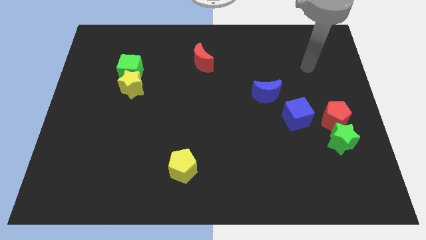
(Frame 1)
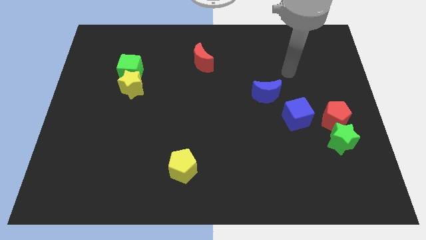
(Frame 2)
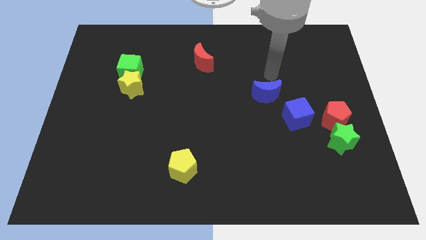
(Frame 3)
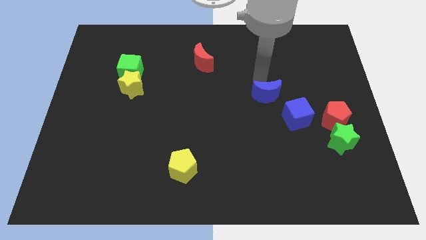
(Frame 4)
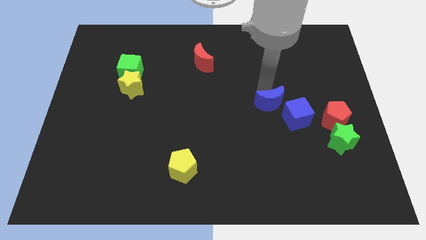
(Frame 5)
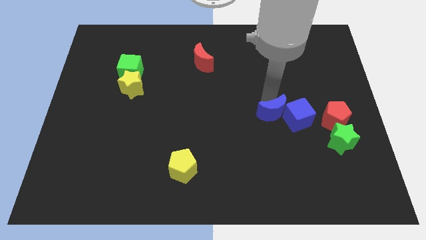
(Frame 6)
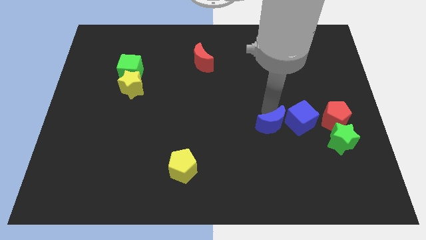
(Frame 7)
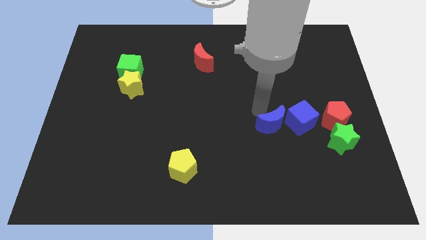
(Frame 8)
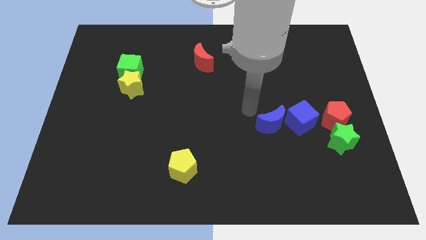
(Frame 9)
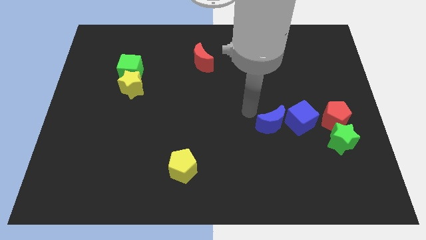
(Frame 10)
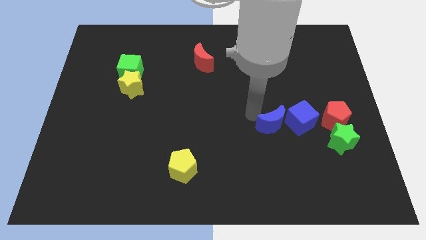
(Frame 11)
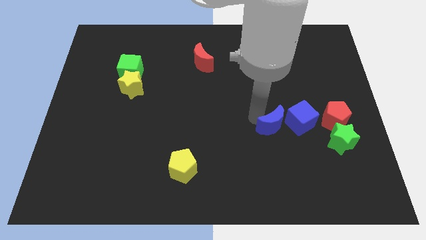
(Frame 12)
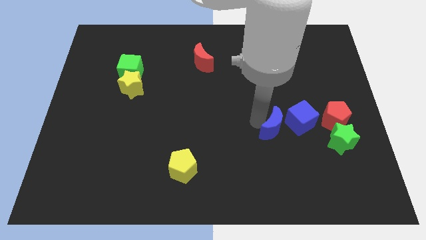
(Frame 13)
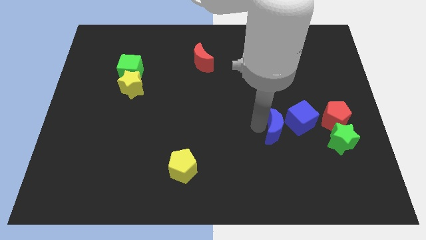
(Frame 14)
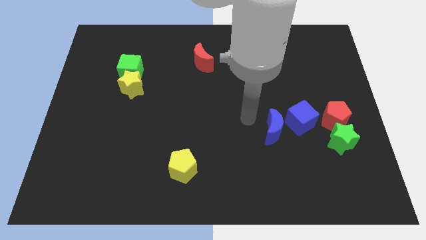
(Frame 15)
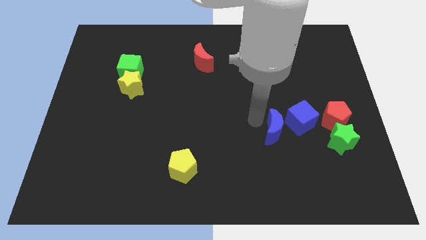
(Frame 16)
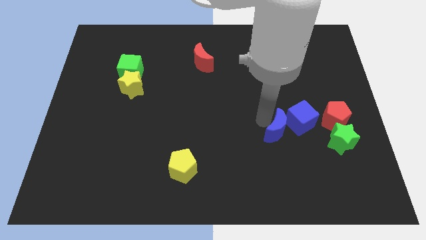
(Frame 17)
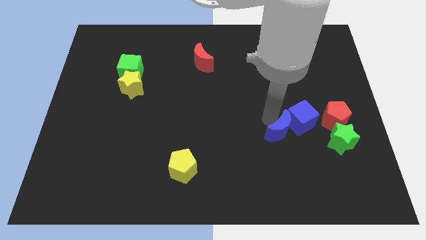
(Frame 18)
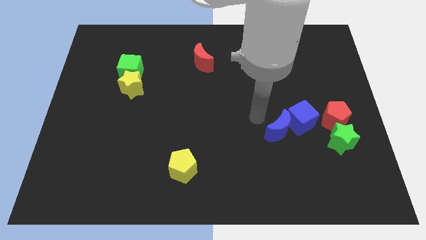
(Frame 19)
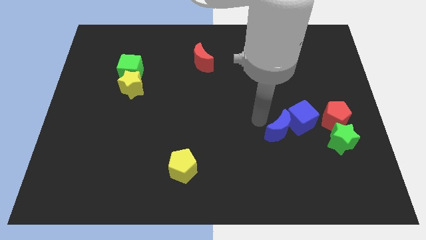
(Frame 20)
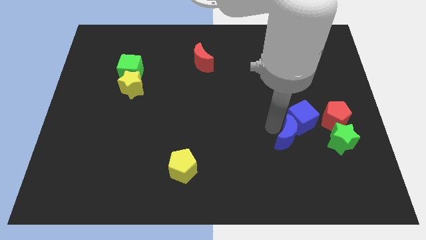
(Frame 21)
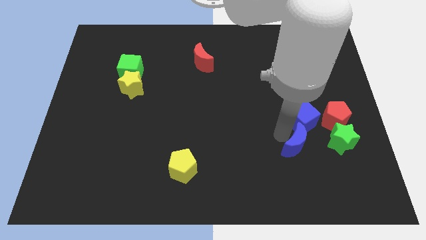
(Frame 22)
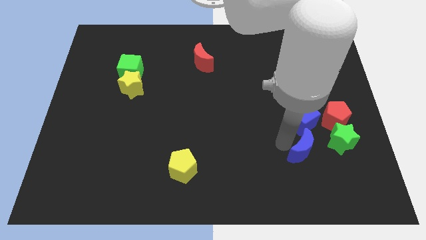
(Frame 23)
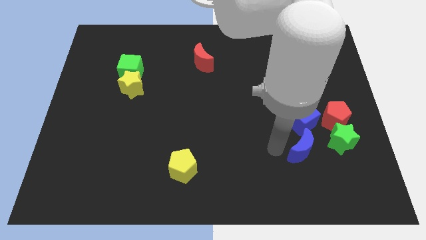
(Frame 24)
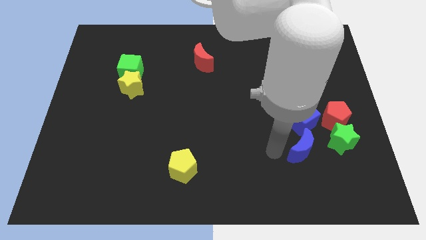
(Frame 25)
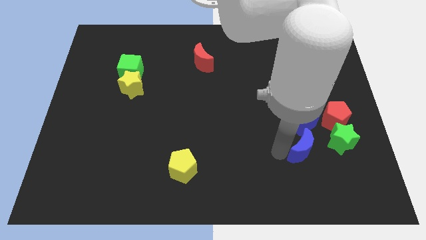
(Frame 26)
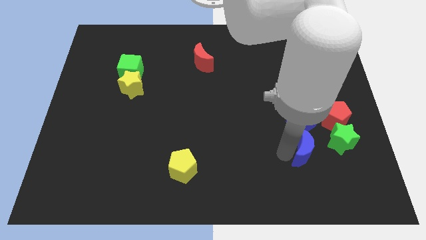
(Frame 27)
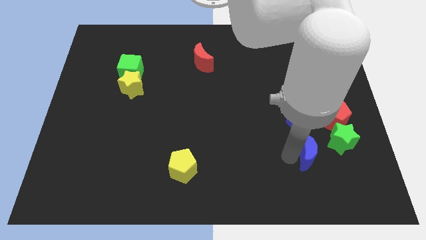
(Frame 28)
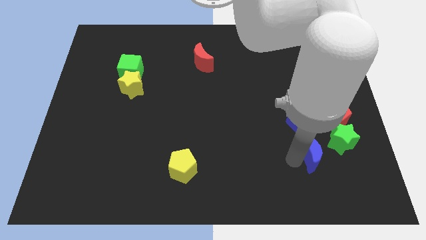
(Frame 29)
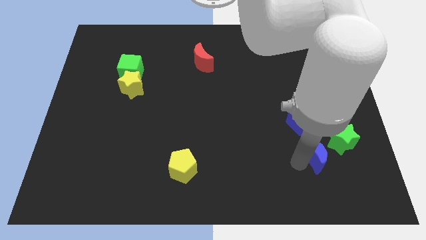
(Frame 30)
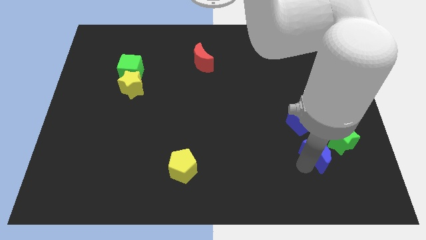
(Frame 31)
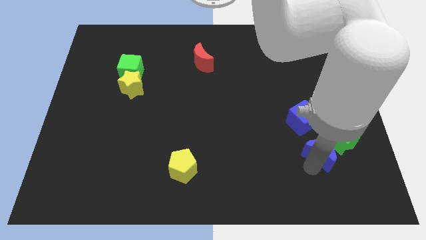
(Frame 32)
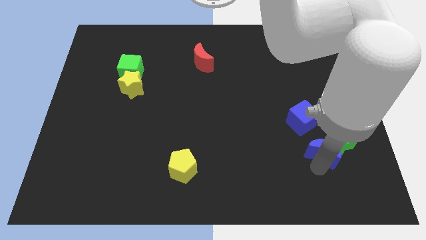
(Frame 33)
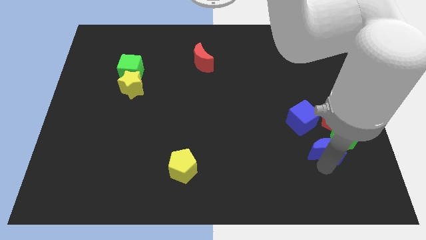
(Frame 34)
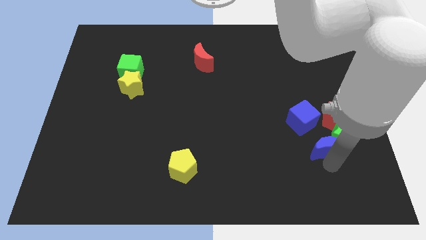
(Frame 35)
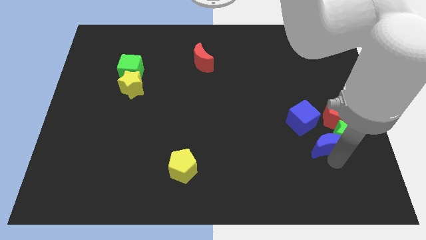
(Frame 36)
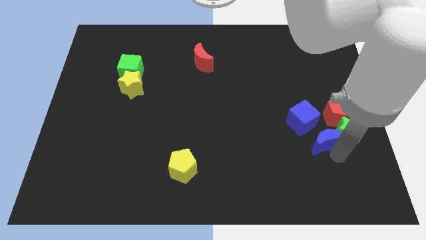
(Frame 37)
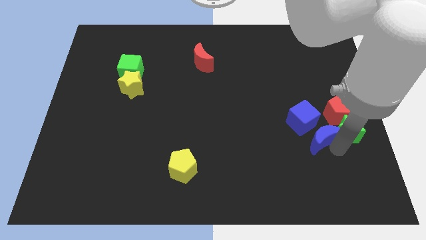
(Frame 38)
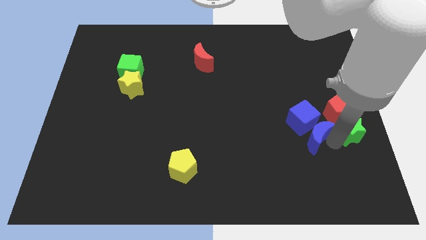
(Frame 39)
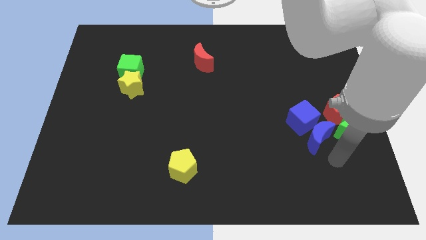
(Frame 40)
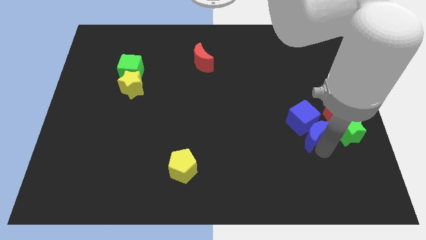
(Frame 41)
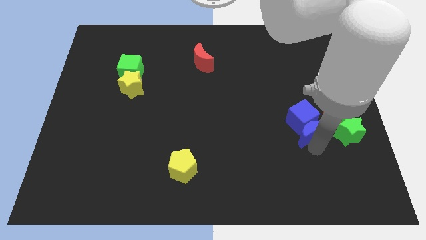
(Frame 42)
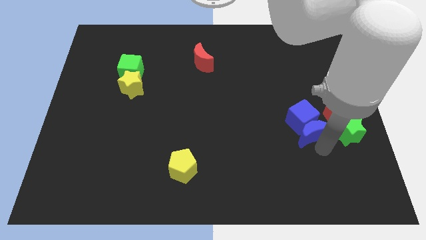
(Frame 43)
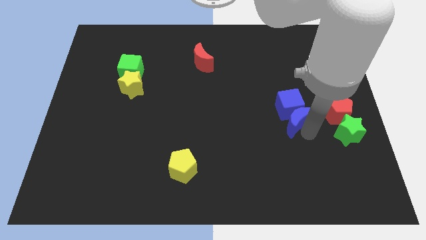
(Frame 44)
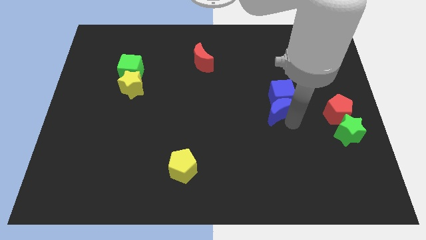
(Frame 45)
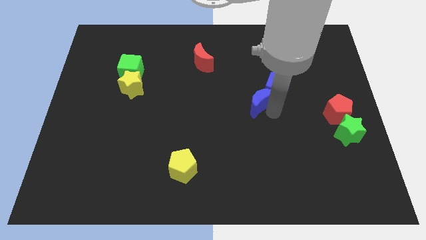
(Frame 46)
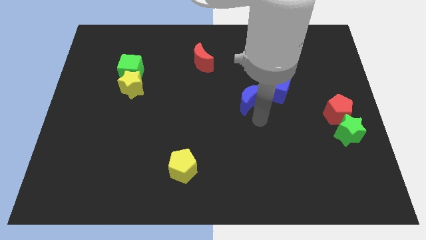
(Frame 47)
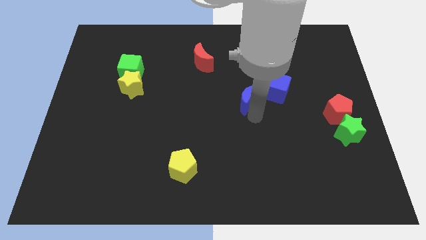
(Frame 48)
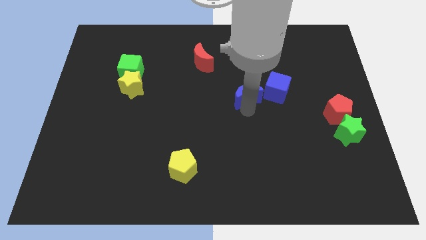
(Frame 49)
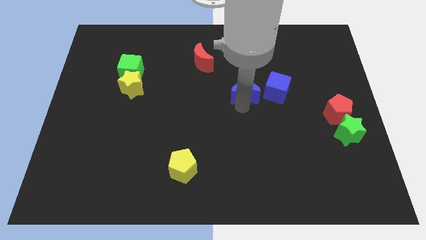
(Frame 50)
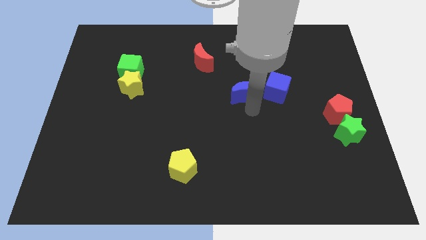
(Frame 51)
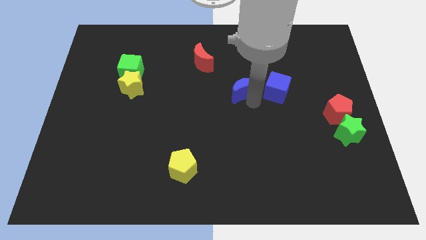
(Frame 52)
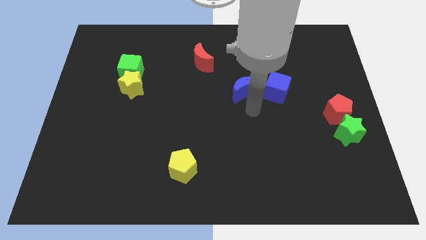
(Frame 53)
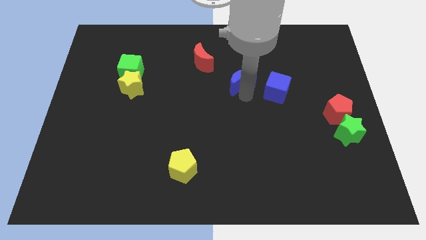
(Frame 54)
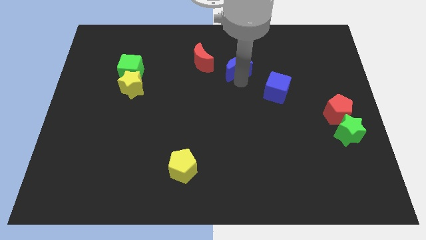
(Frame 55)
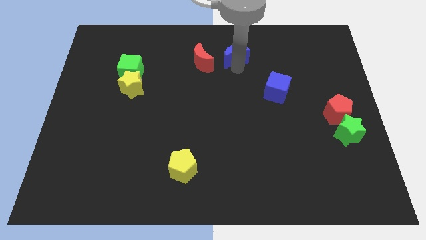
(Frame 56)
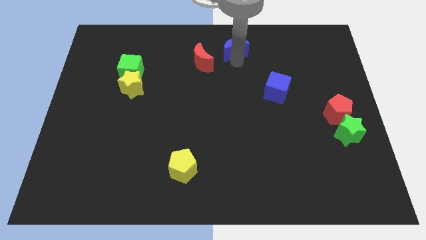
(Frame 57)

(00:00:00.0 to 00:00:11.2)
put the blue moon to the towards your base

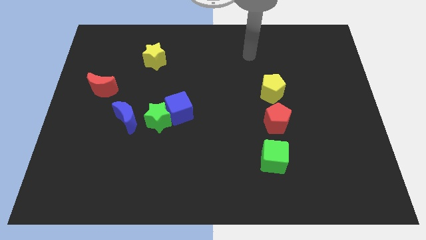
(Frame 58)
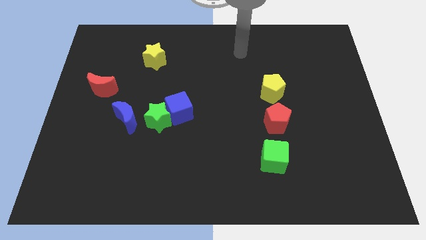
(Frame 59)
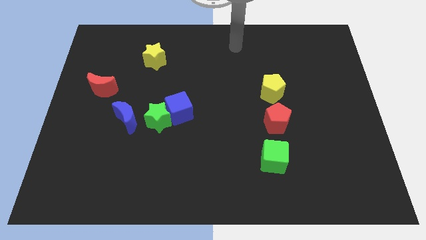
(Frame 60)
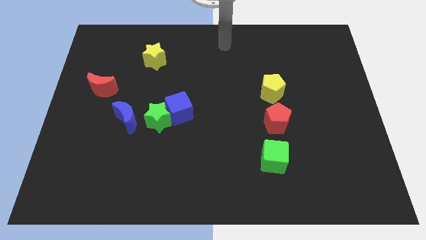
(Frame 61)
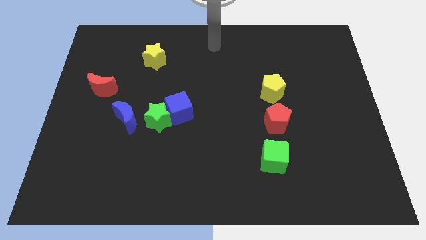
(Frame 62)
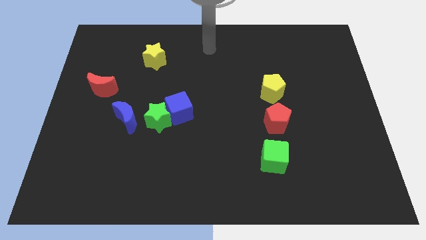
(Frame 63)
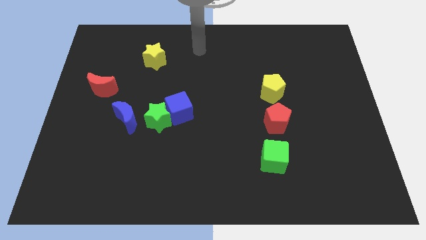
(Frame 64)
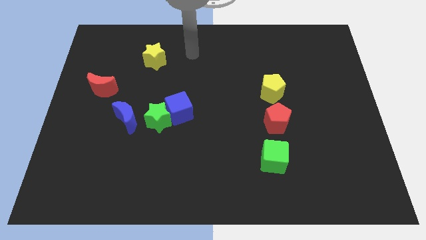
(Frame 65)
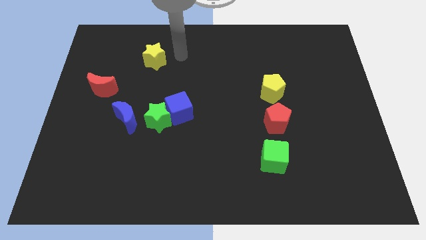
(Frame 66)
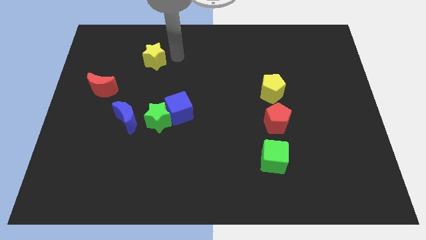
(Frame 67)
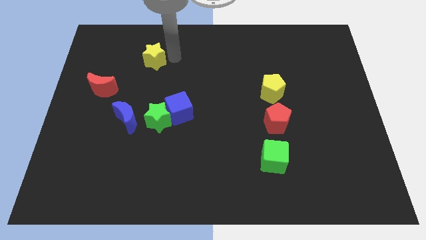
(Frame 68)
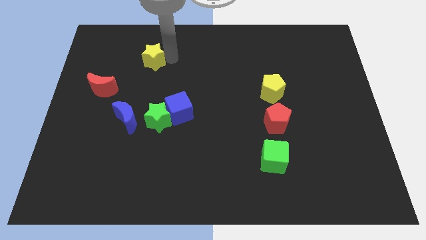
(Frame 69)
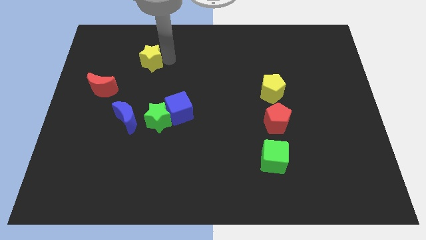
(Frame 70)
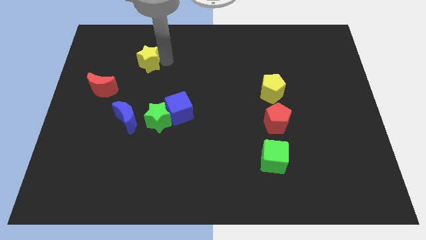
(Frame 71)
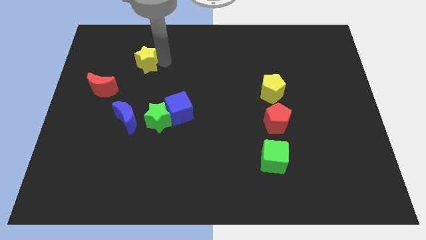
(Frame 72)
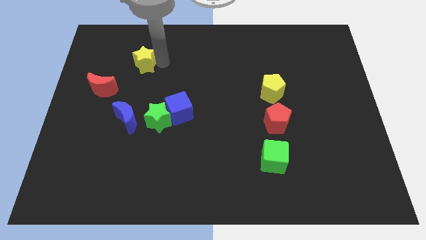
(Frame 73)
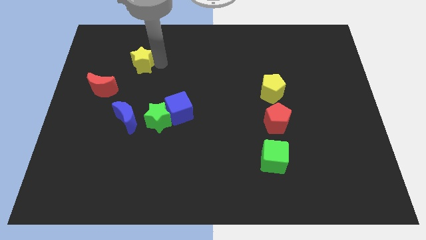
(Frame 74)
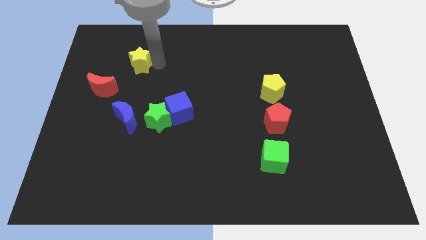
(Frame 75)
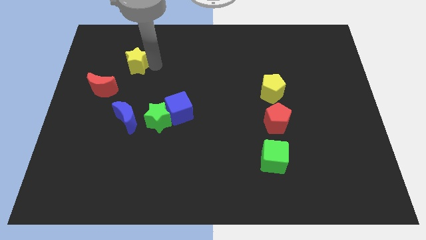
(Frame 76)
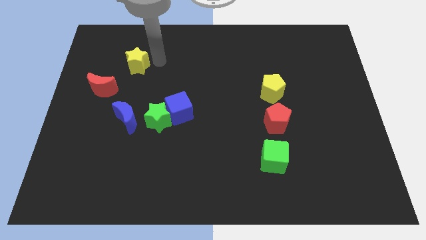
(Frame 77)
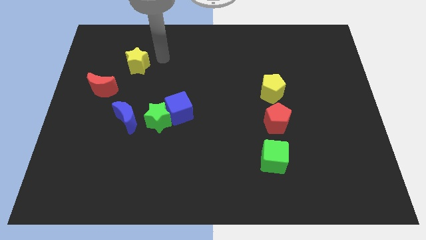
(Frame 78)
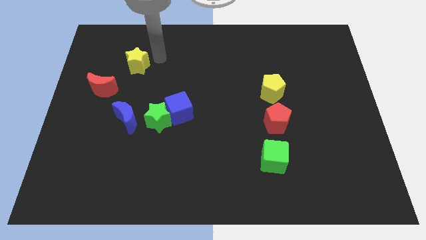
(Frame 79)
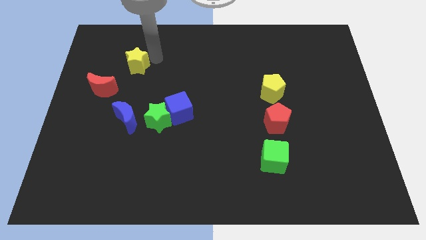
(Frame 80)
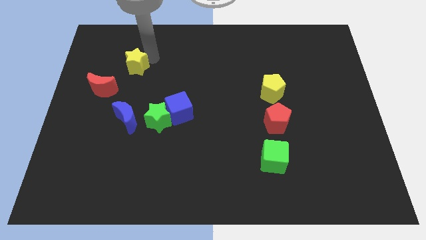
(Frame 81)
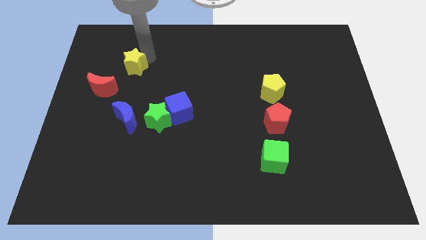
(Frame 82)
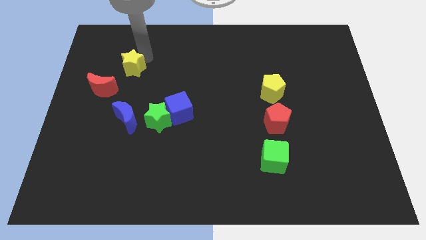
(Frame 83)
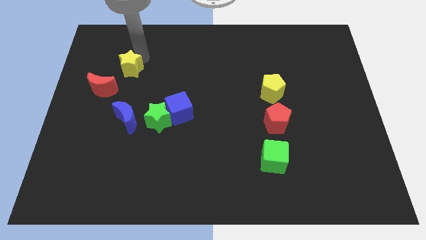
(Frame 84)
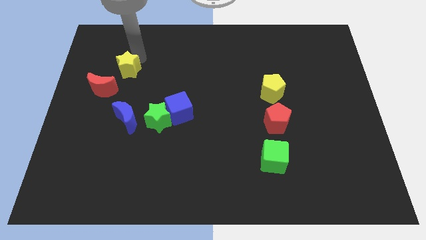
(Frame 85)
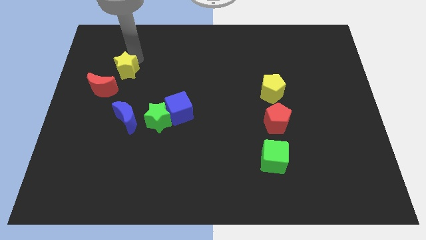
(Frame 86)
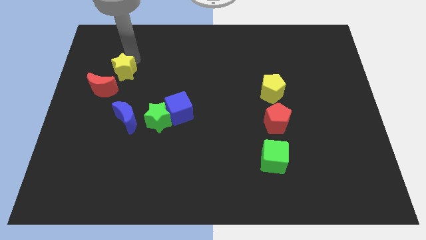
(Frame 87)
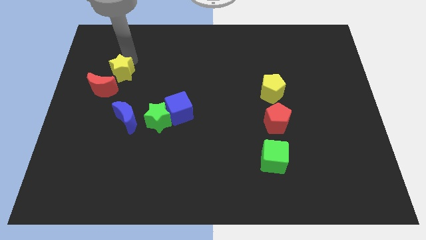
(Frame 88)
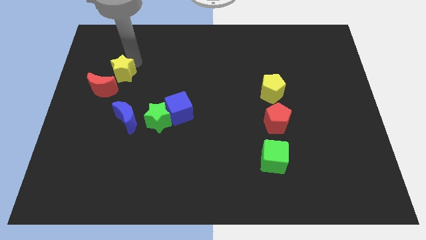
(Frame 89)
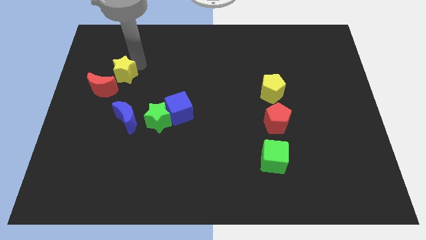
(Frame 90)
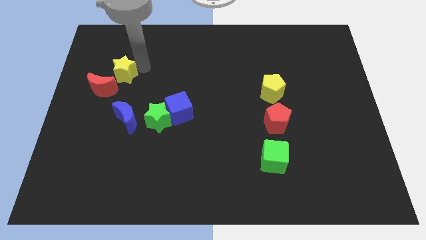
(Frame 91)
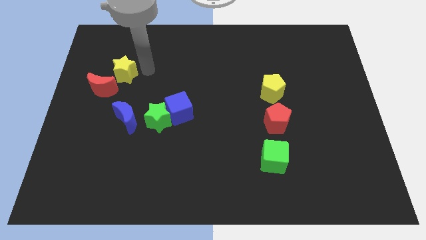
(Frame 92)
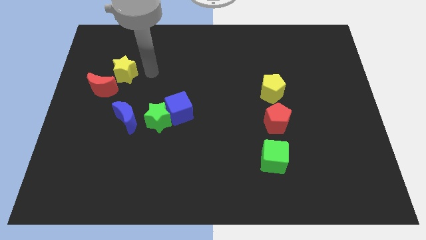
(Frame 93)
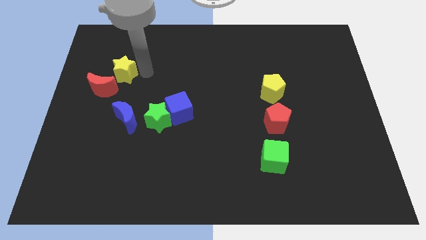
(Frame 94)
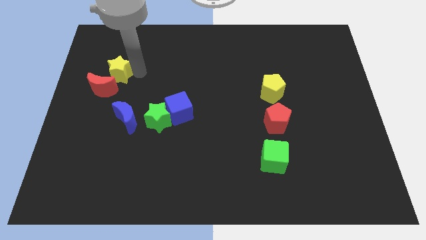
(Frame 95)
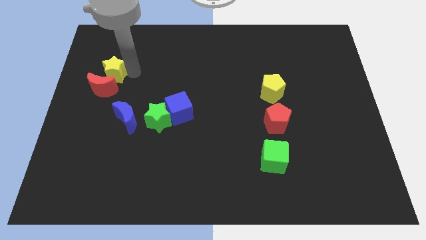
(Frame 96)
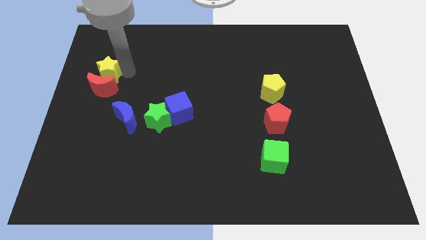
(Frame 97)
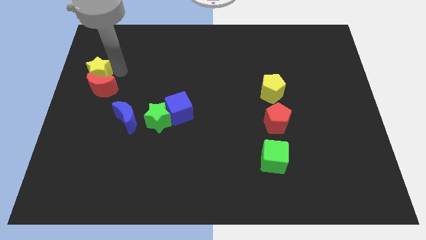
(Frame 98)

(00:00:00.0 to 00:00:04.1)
slide the yellow star to the left side of the board
